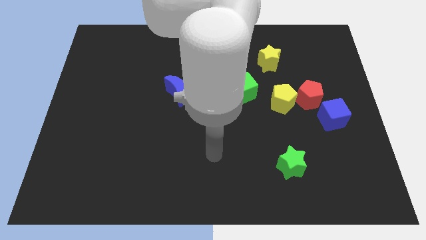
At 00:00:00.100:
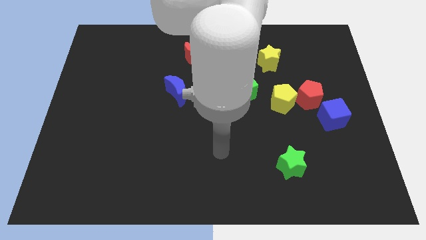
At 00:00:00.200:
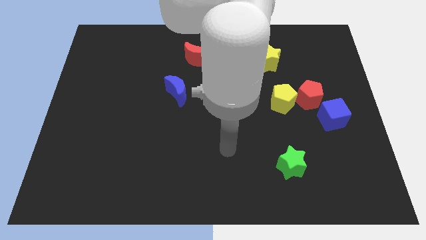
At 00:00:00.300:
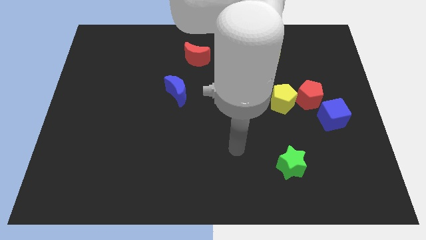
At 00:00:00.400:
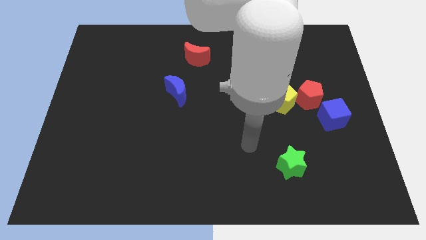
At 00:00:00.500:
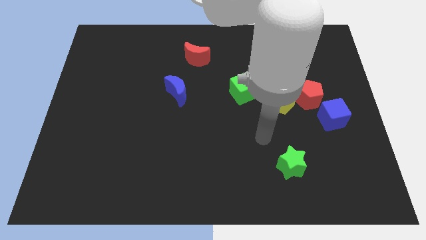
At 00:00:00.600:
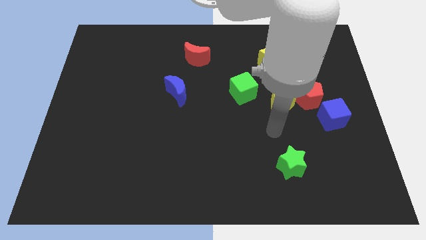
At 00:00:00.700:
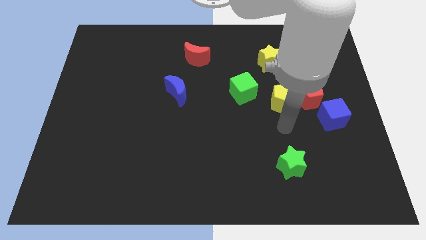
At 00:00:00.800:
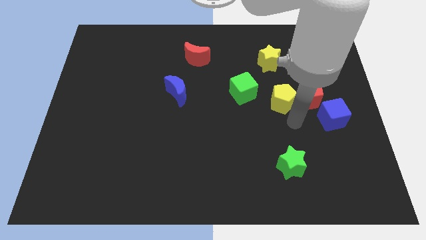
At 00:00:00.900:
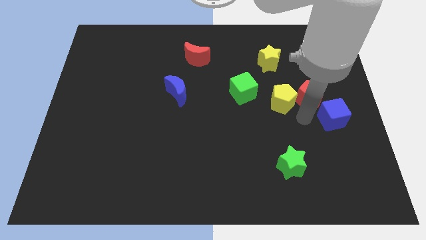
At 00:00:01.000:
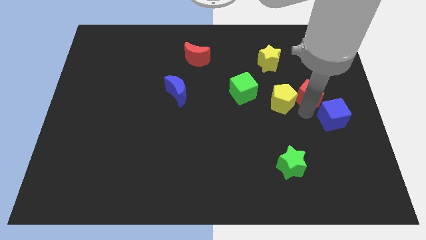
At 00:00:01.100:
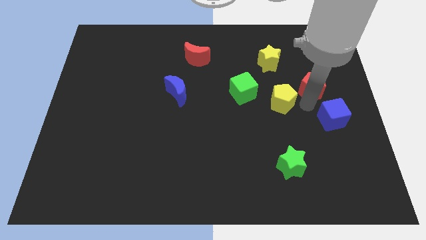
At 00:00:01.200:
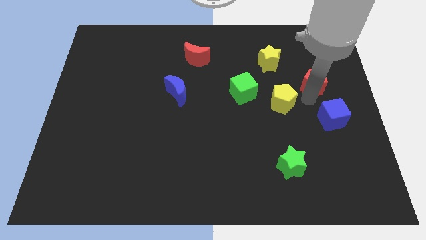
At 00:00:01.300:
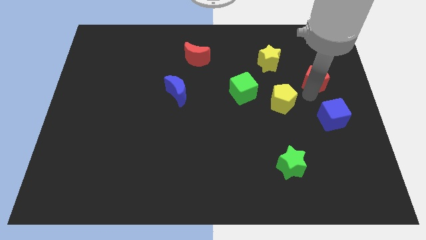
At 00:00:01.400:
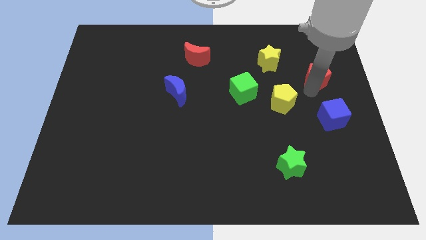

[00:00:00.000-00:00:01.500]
move the red pentagon away from the yellow pentagon and blue cube

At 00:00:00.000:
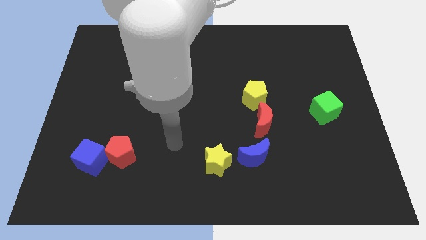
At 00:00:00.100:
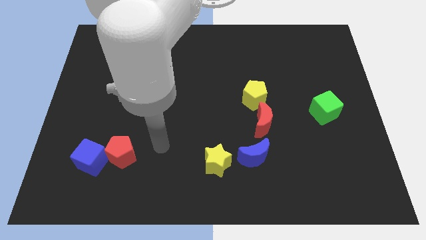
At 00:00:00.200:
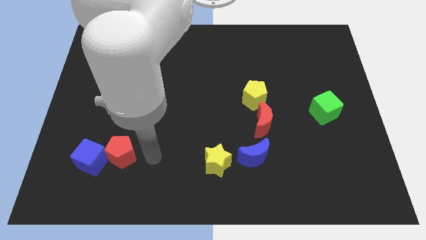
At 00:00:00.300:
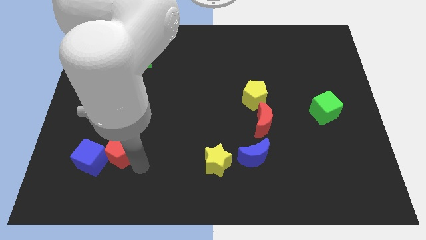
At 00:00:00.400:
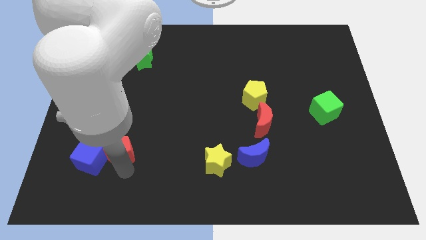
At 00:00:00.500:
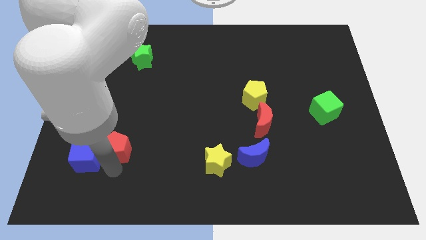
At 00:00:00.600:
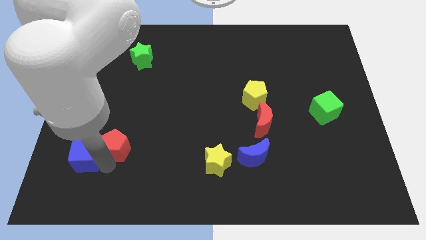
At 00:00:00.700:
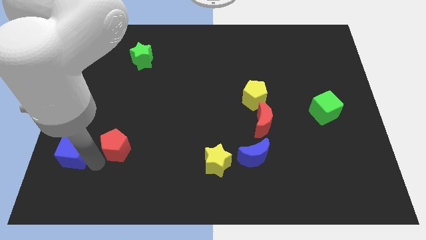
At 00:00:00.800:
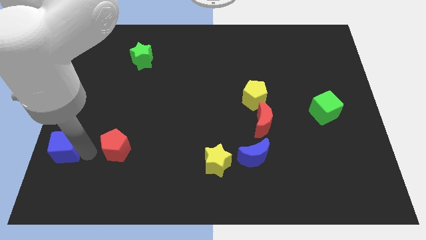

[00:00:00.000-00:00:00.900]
separate the red pentagon from the blue cube

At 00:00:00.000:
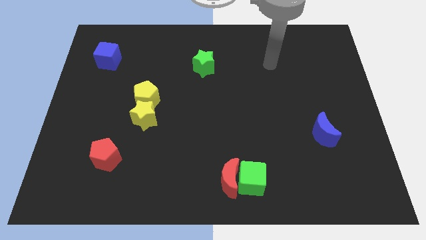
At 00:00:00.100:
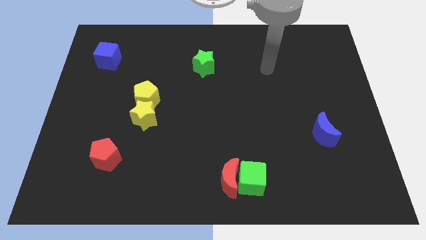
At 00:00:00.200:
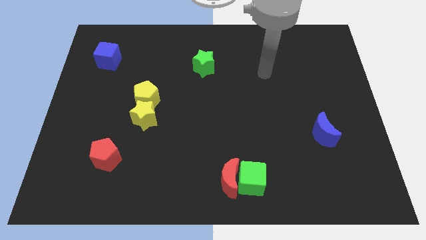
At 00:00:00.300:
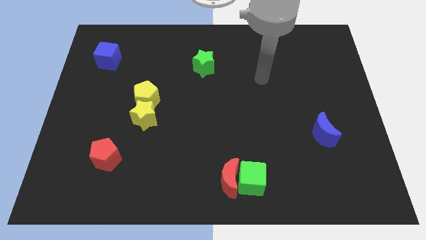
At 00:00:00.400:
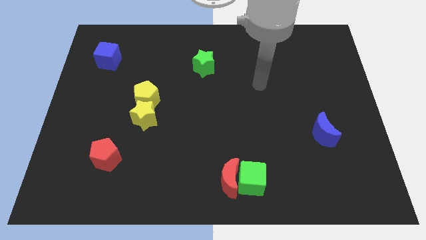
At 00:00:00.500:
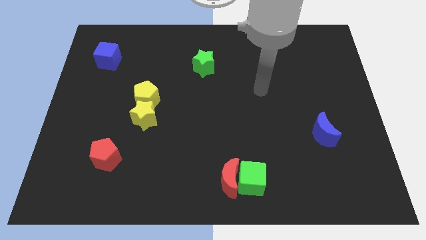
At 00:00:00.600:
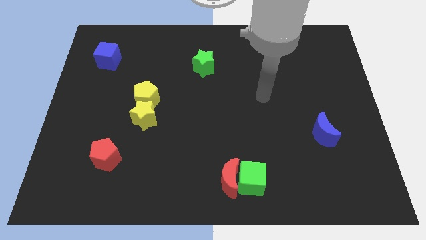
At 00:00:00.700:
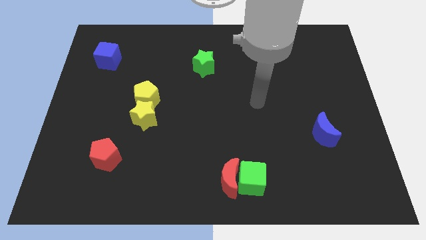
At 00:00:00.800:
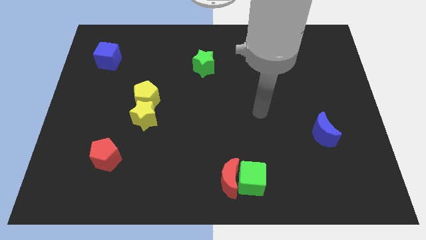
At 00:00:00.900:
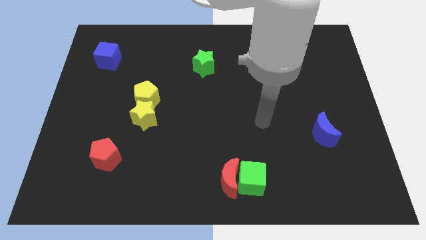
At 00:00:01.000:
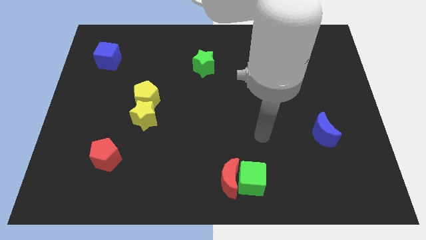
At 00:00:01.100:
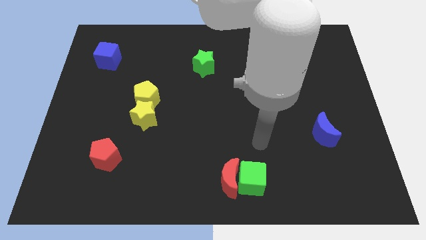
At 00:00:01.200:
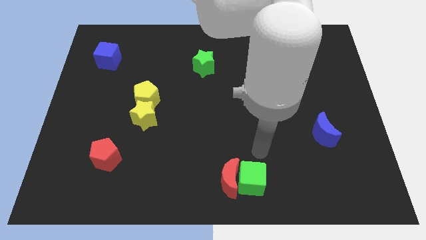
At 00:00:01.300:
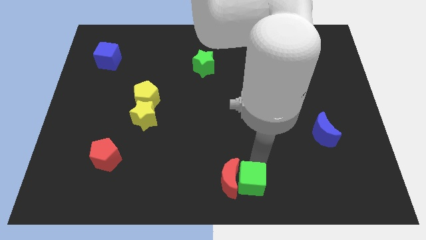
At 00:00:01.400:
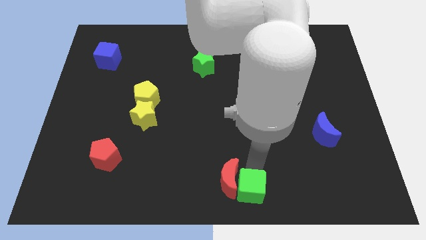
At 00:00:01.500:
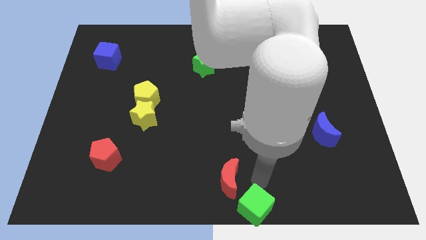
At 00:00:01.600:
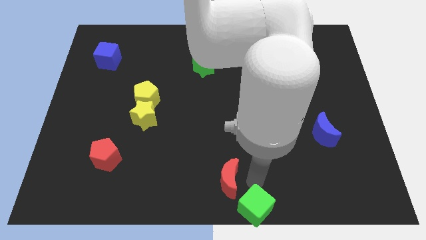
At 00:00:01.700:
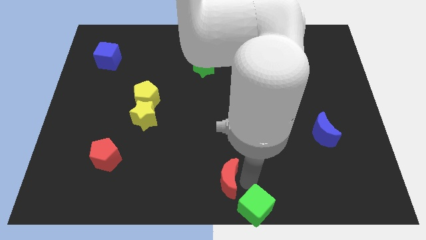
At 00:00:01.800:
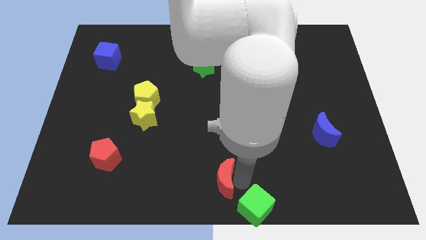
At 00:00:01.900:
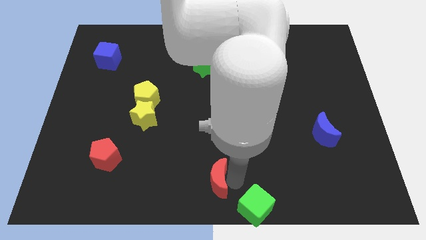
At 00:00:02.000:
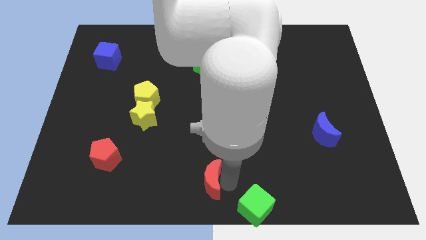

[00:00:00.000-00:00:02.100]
separate the red moon from the green cube

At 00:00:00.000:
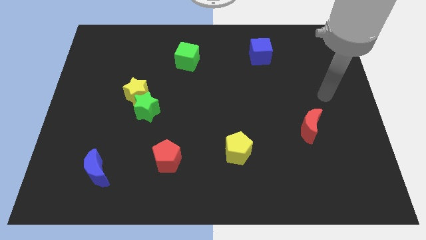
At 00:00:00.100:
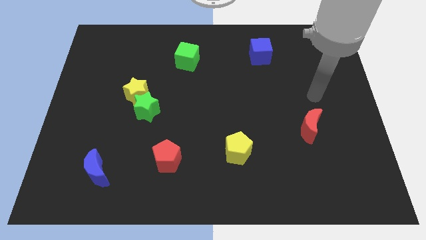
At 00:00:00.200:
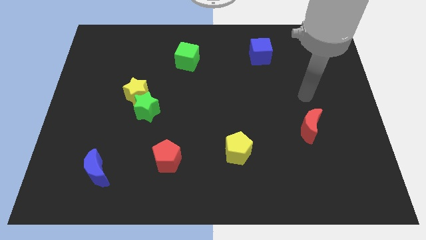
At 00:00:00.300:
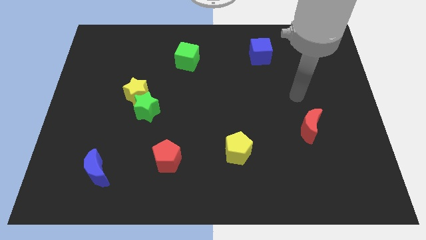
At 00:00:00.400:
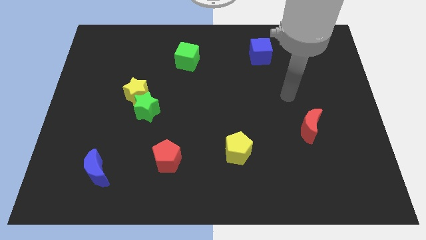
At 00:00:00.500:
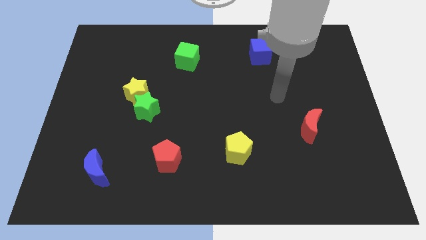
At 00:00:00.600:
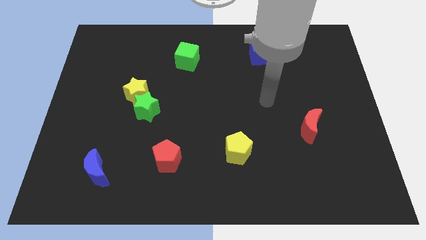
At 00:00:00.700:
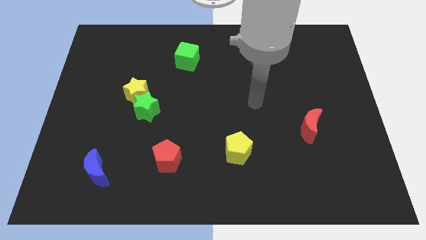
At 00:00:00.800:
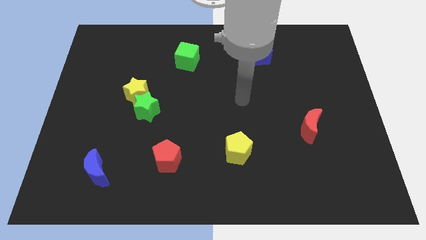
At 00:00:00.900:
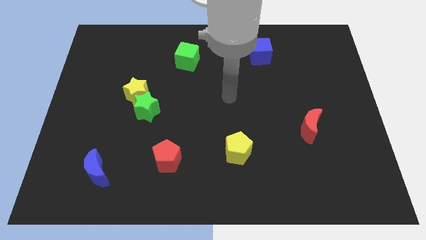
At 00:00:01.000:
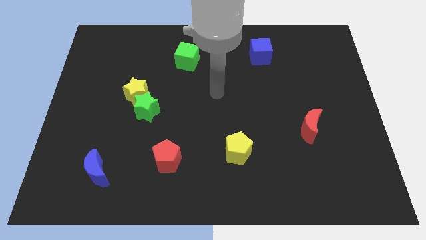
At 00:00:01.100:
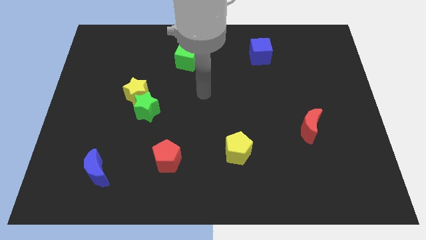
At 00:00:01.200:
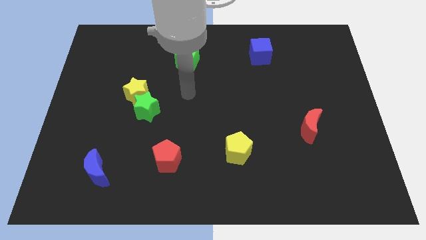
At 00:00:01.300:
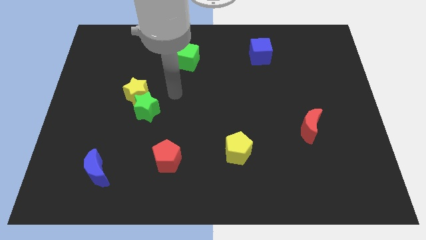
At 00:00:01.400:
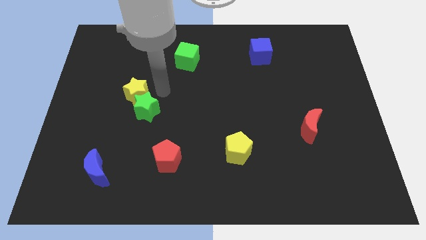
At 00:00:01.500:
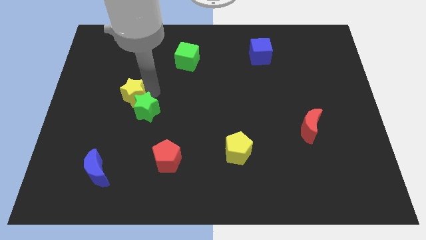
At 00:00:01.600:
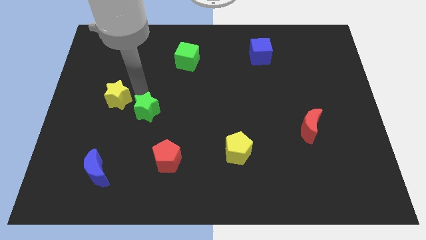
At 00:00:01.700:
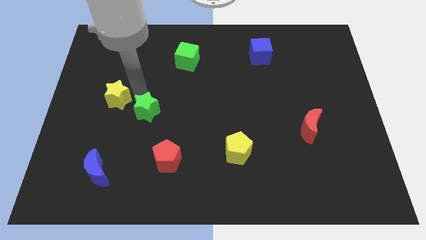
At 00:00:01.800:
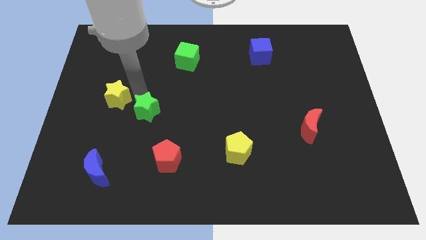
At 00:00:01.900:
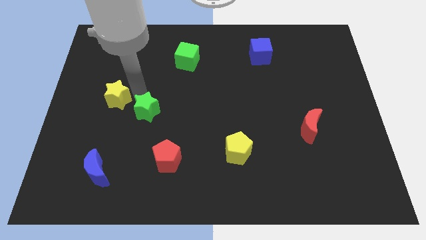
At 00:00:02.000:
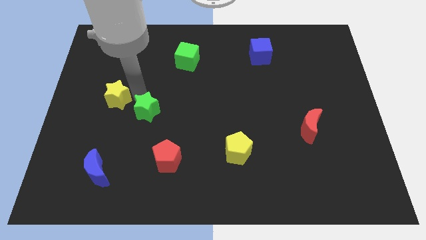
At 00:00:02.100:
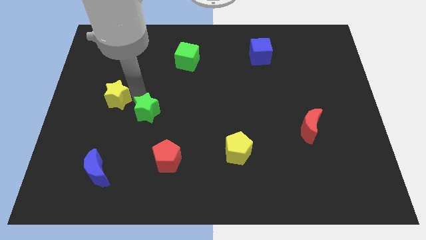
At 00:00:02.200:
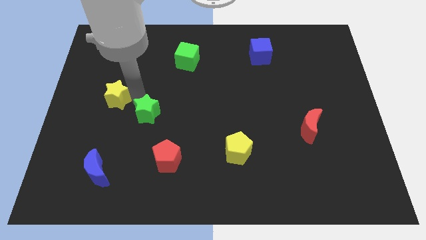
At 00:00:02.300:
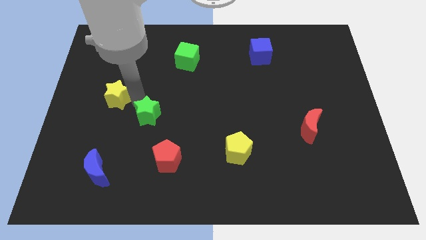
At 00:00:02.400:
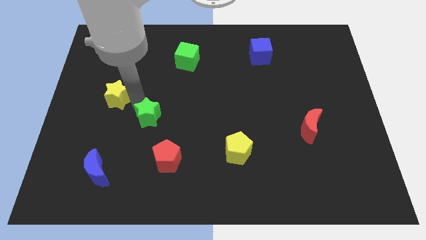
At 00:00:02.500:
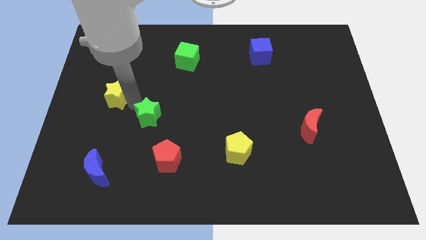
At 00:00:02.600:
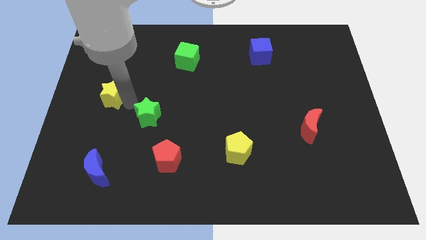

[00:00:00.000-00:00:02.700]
pull the green star apart from the yellow star

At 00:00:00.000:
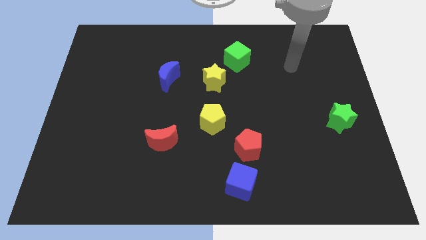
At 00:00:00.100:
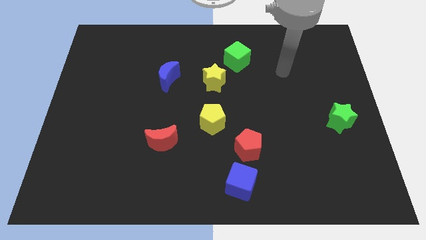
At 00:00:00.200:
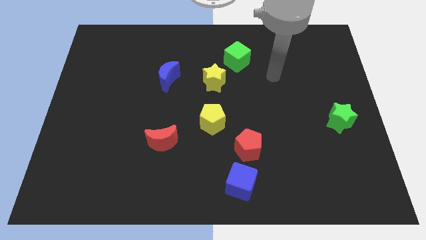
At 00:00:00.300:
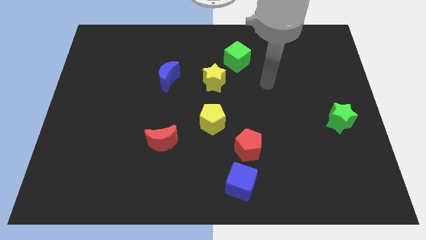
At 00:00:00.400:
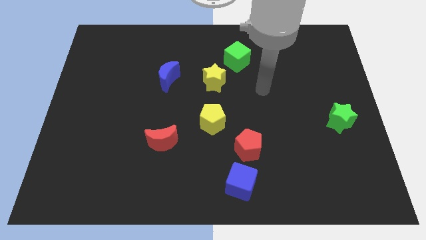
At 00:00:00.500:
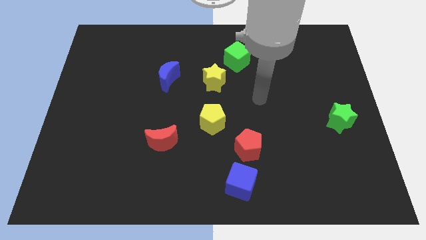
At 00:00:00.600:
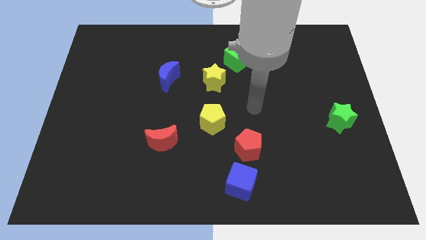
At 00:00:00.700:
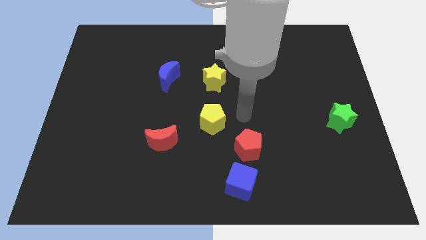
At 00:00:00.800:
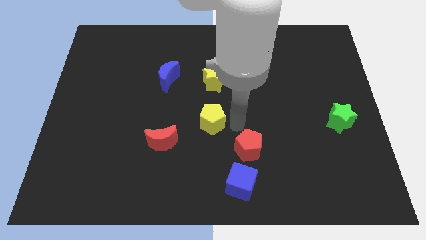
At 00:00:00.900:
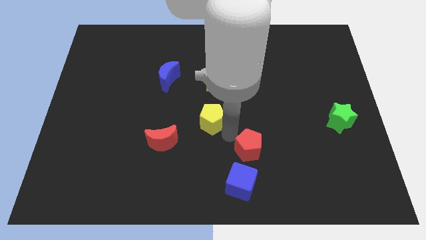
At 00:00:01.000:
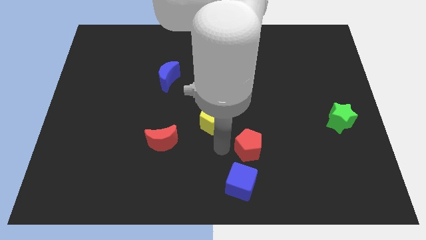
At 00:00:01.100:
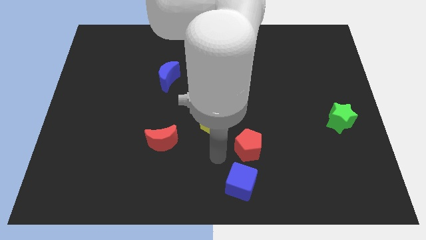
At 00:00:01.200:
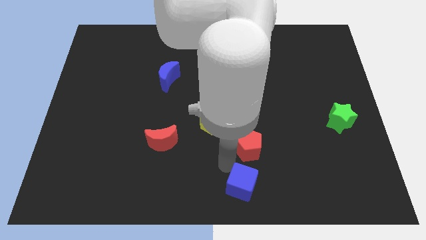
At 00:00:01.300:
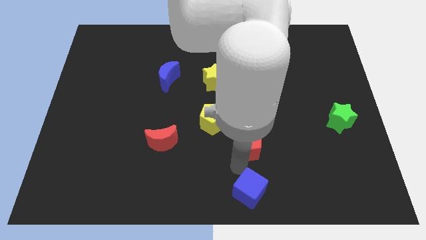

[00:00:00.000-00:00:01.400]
move the red pentagon away from the blue cube

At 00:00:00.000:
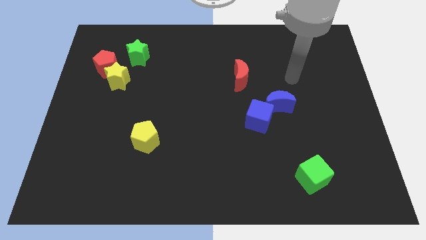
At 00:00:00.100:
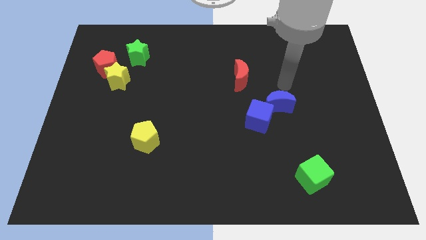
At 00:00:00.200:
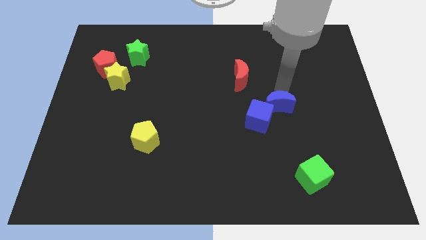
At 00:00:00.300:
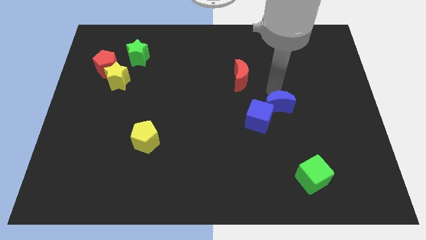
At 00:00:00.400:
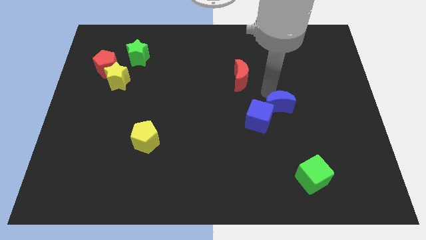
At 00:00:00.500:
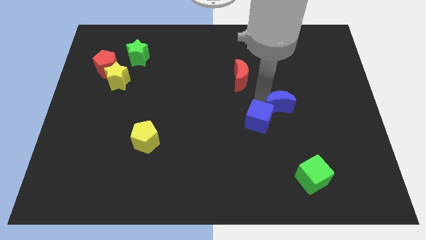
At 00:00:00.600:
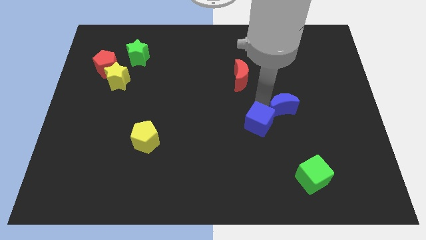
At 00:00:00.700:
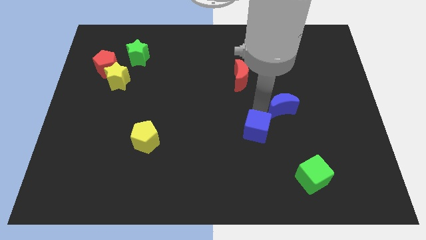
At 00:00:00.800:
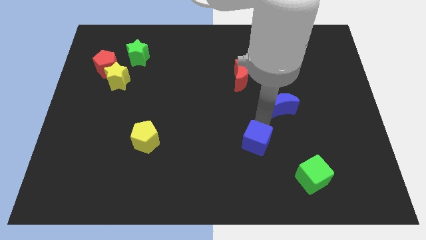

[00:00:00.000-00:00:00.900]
separate the blue moon from the blue cube
